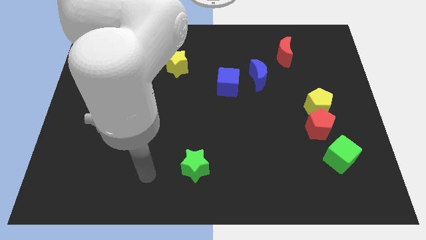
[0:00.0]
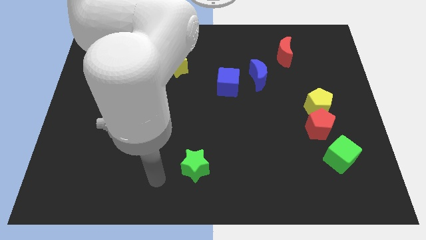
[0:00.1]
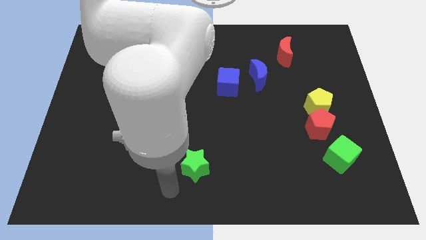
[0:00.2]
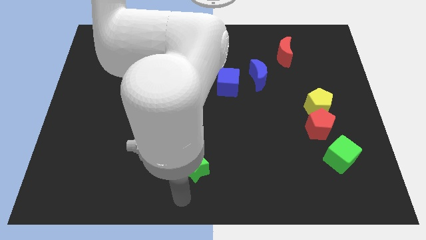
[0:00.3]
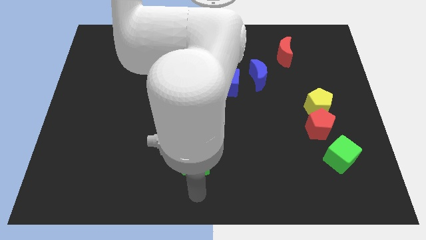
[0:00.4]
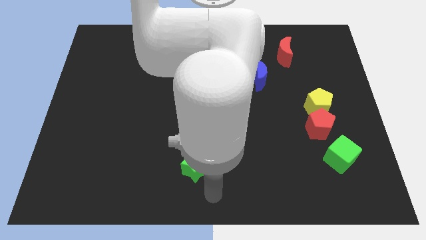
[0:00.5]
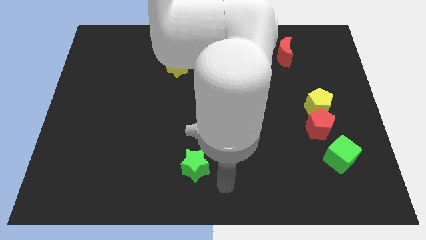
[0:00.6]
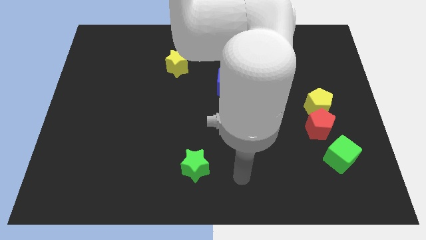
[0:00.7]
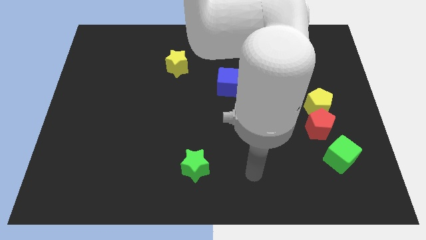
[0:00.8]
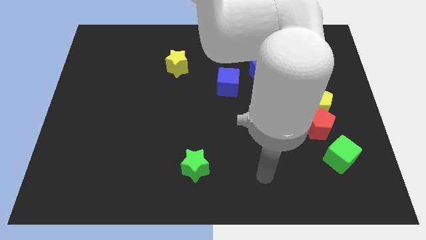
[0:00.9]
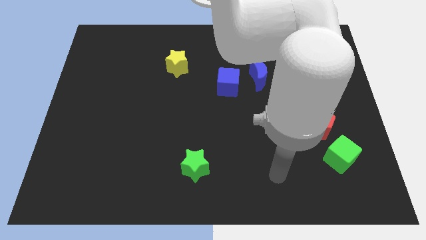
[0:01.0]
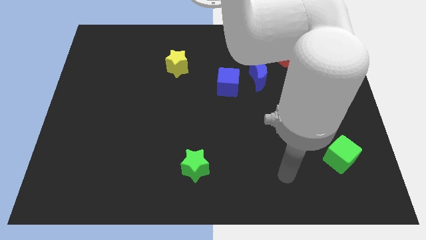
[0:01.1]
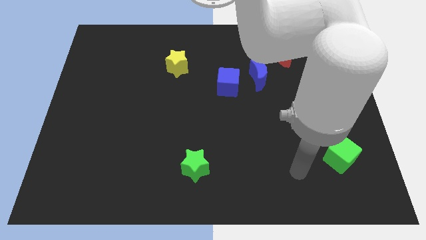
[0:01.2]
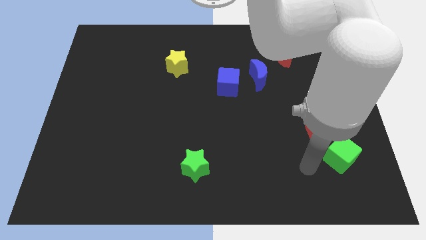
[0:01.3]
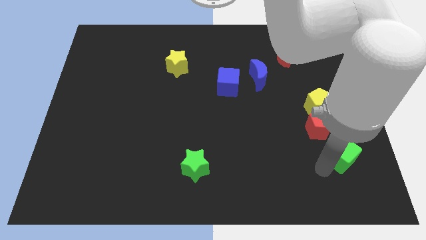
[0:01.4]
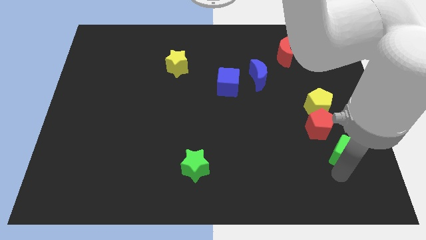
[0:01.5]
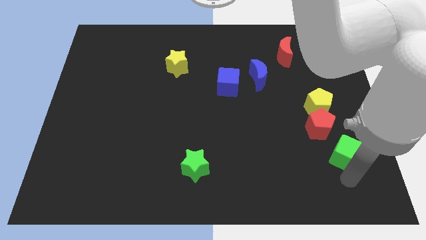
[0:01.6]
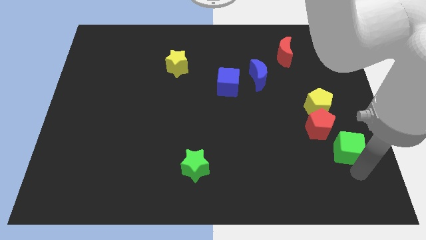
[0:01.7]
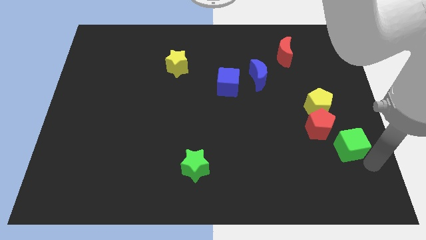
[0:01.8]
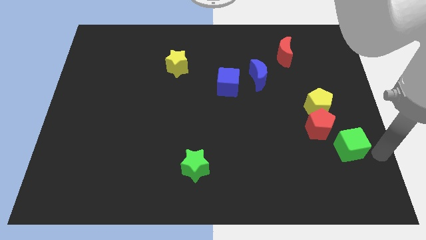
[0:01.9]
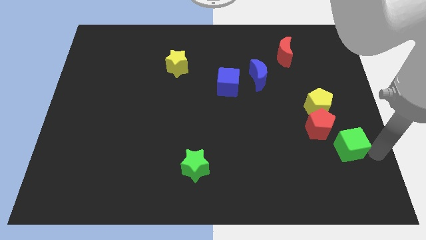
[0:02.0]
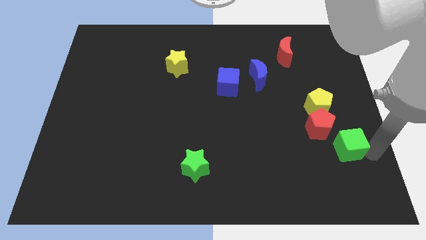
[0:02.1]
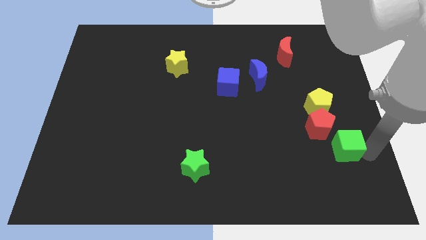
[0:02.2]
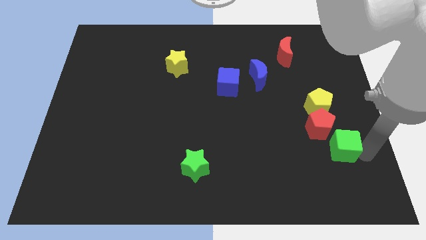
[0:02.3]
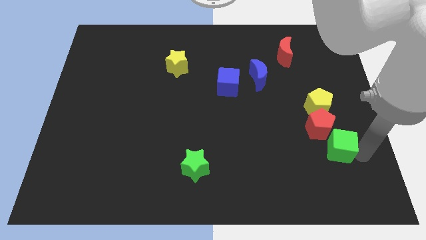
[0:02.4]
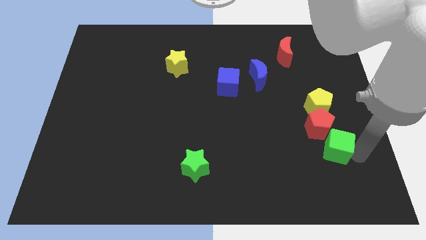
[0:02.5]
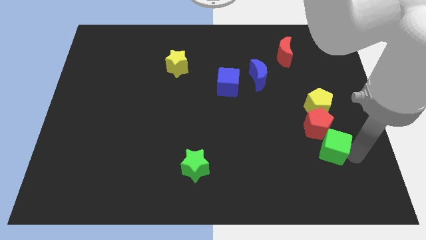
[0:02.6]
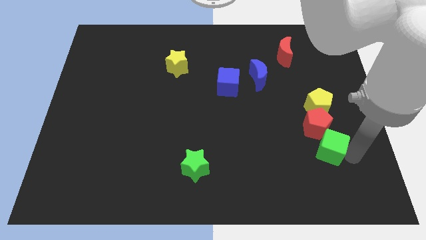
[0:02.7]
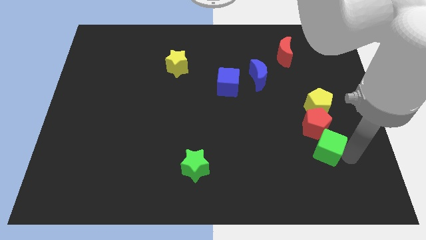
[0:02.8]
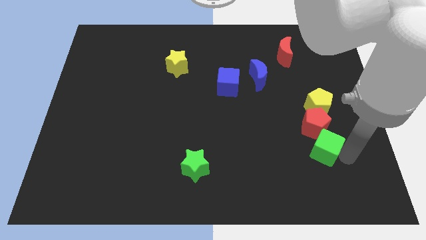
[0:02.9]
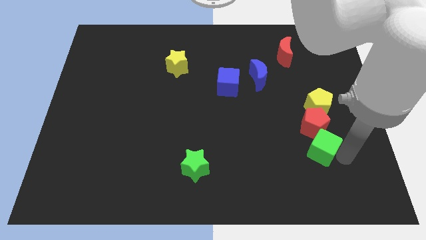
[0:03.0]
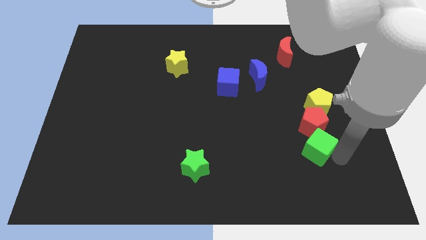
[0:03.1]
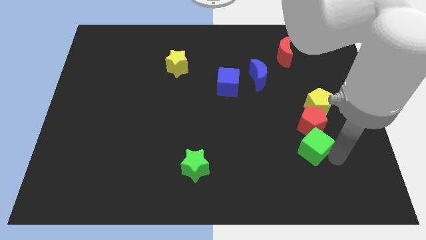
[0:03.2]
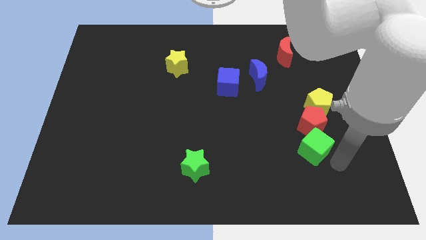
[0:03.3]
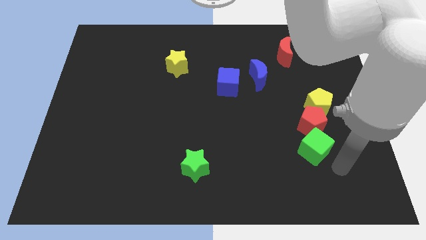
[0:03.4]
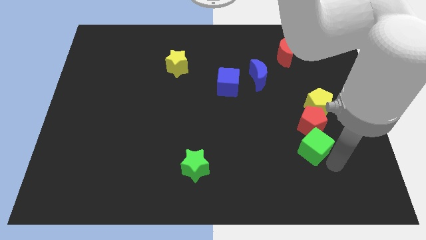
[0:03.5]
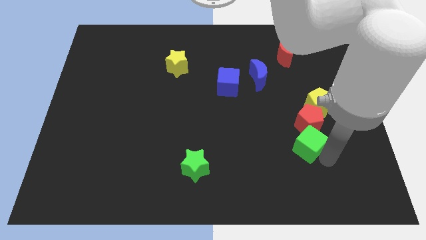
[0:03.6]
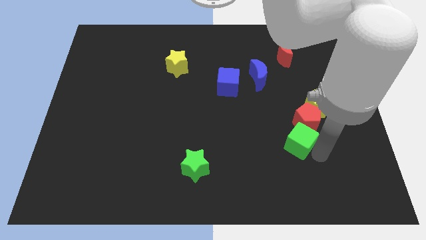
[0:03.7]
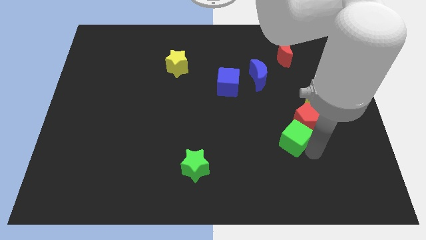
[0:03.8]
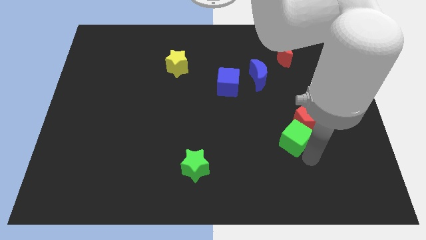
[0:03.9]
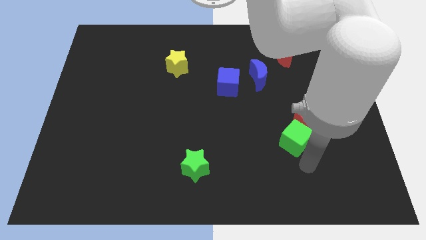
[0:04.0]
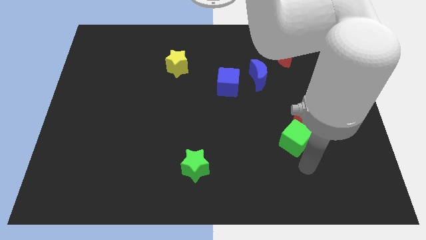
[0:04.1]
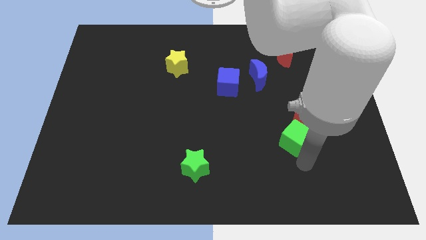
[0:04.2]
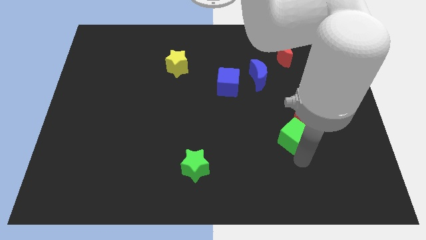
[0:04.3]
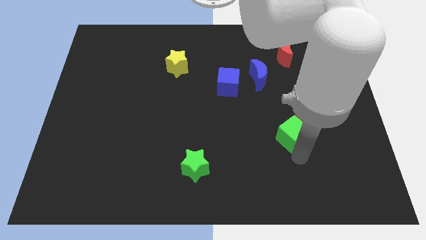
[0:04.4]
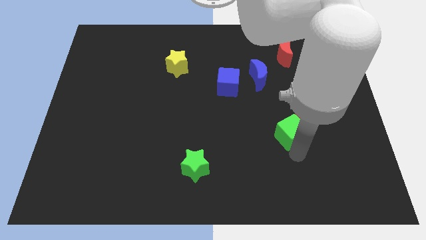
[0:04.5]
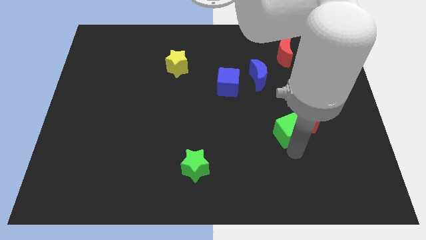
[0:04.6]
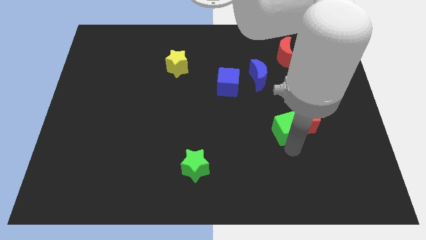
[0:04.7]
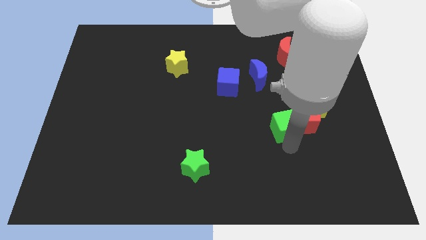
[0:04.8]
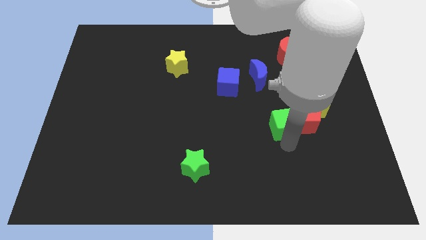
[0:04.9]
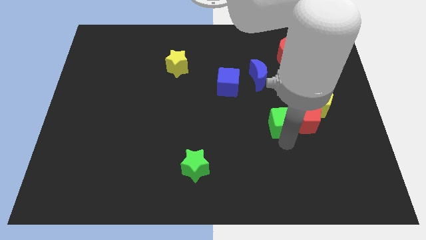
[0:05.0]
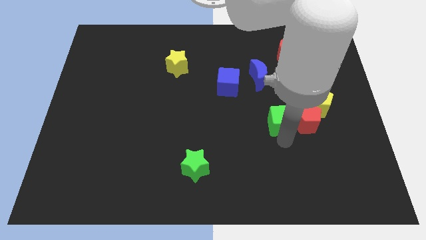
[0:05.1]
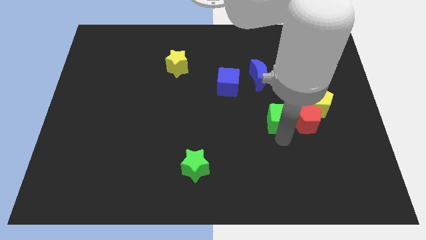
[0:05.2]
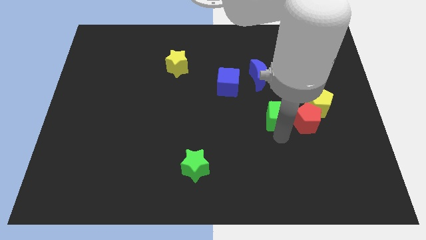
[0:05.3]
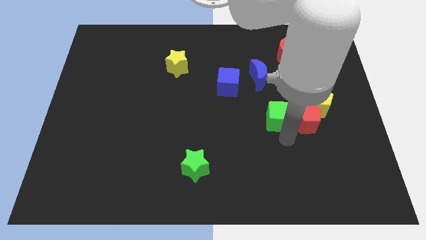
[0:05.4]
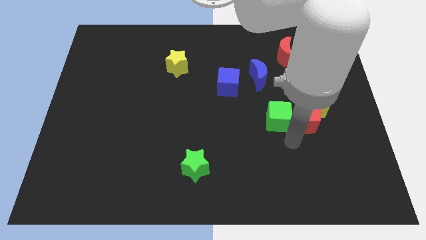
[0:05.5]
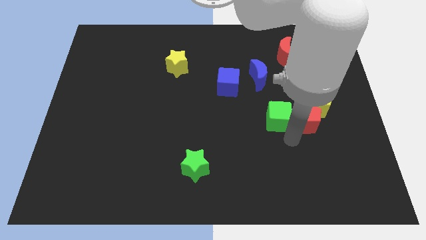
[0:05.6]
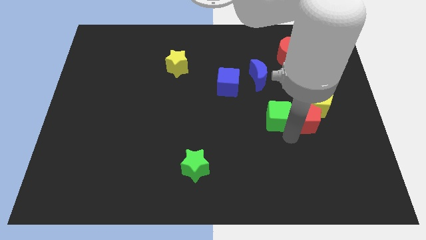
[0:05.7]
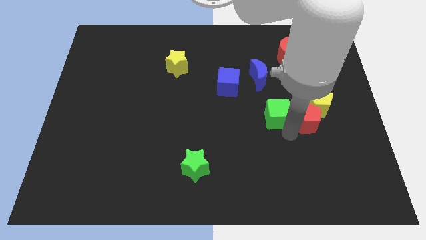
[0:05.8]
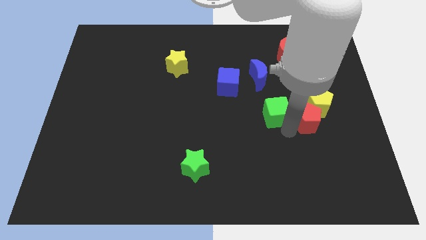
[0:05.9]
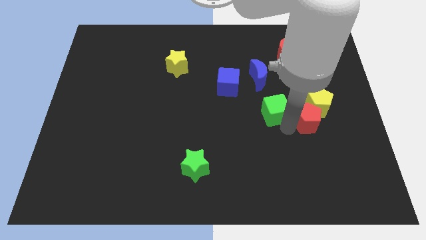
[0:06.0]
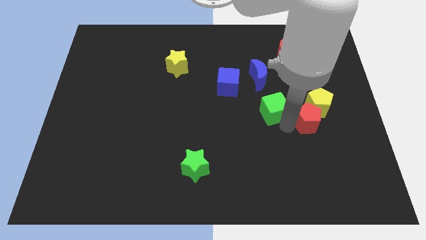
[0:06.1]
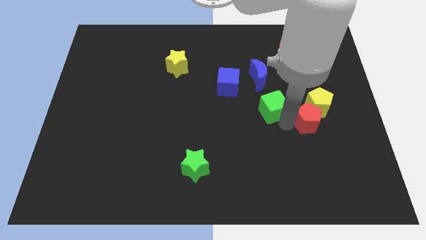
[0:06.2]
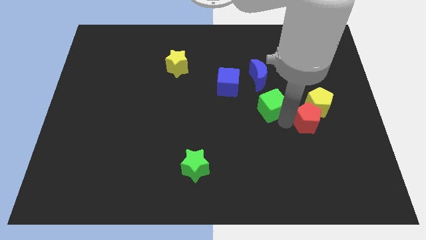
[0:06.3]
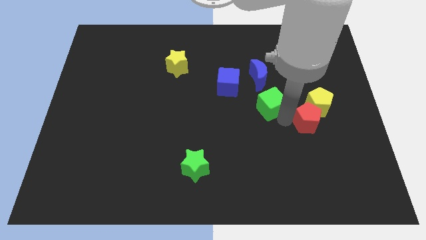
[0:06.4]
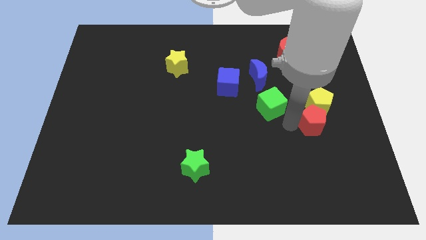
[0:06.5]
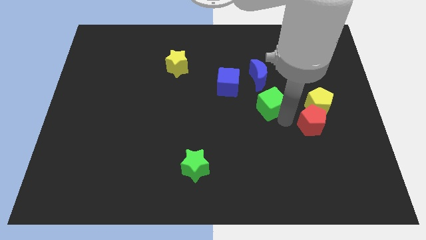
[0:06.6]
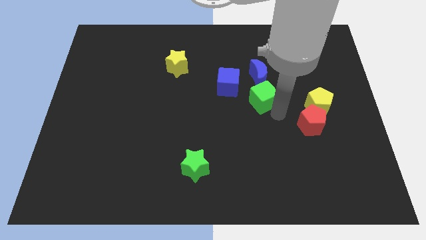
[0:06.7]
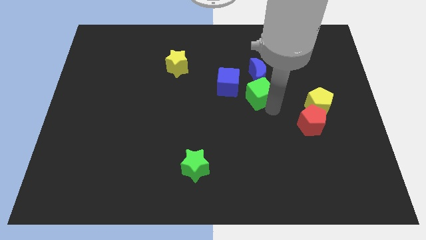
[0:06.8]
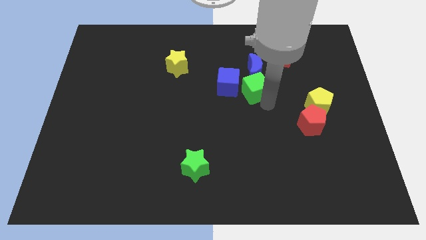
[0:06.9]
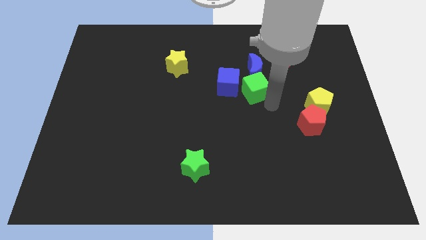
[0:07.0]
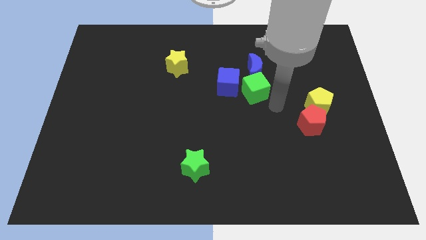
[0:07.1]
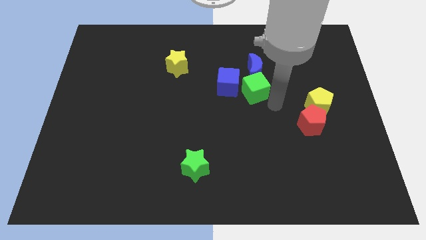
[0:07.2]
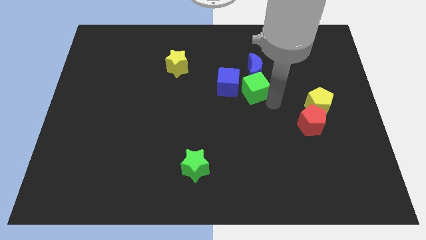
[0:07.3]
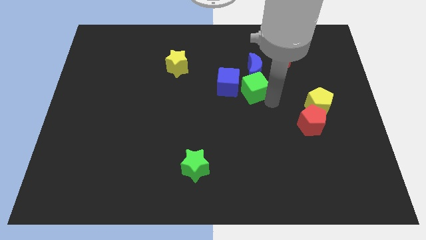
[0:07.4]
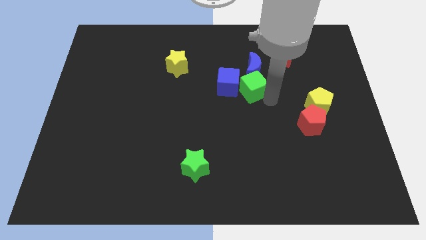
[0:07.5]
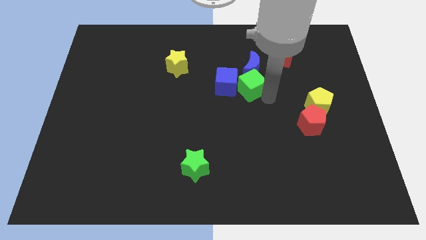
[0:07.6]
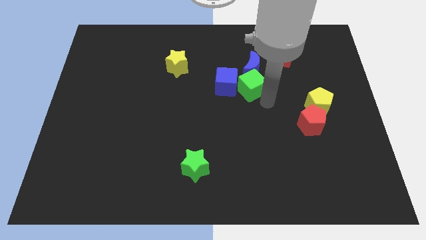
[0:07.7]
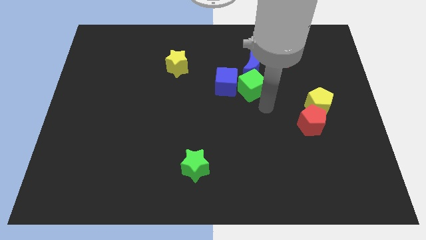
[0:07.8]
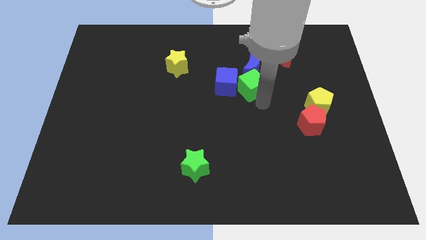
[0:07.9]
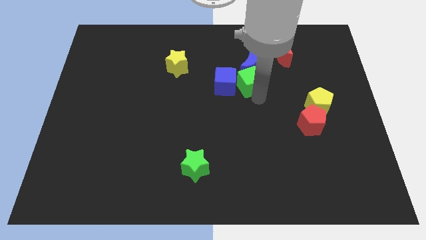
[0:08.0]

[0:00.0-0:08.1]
move the green cube to the top right of the blue cube
